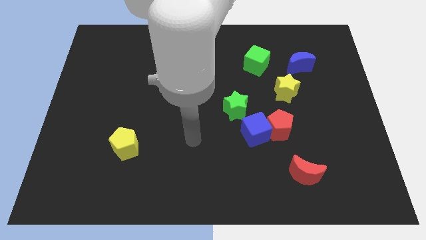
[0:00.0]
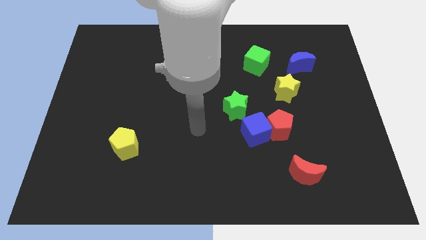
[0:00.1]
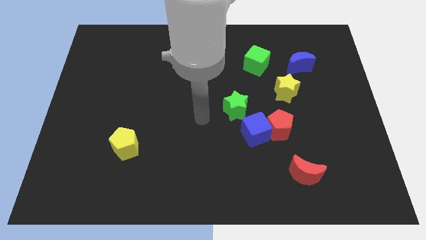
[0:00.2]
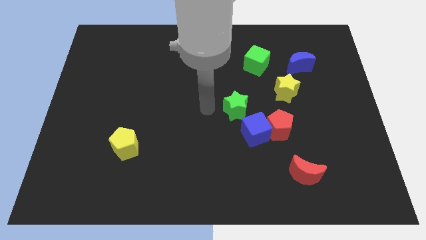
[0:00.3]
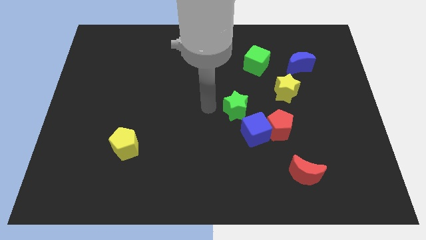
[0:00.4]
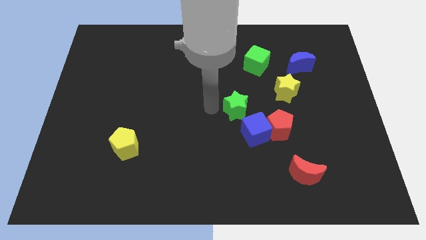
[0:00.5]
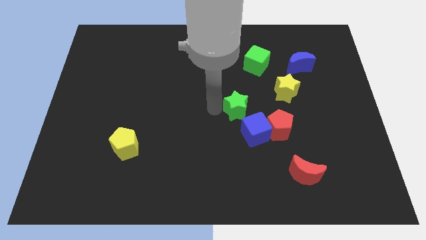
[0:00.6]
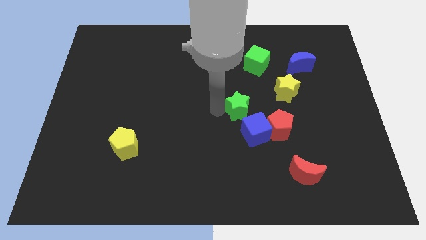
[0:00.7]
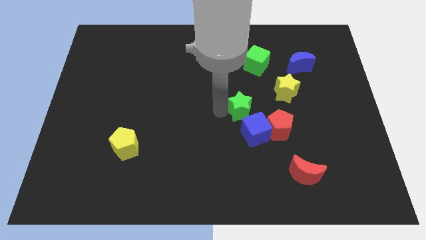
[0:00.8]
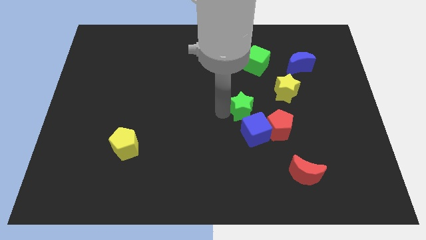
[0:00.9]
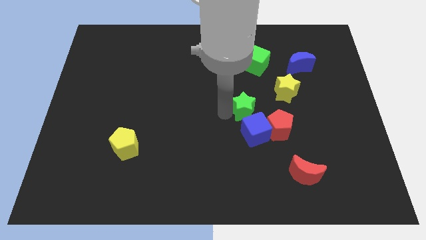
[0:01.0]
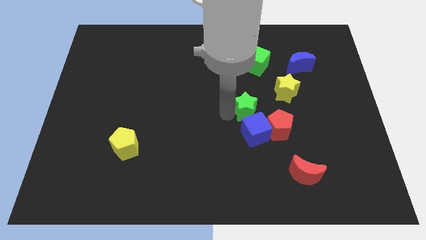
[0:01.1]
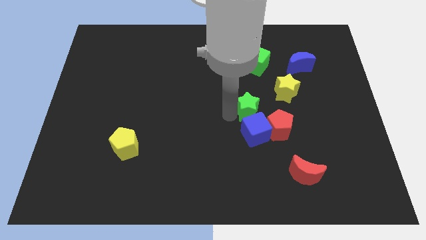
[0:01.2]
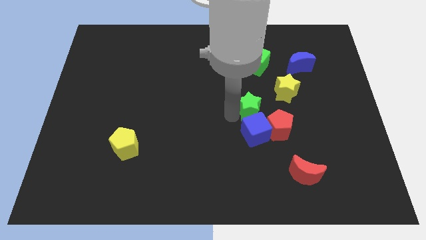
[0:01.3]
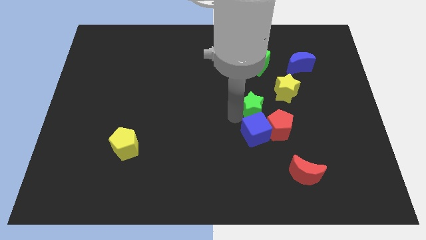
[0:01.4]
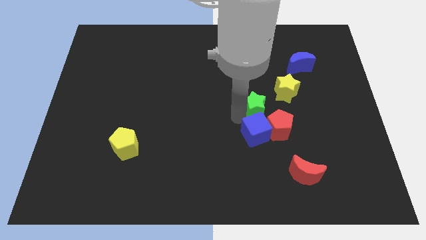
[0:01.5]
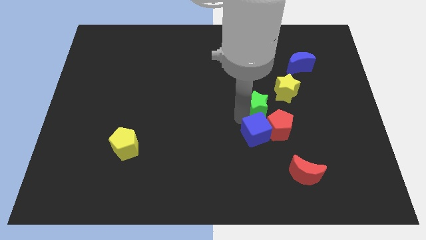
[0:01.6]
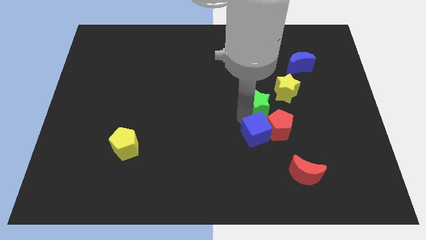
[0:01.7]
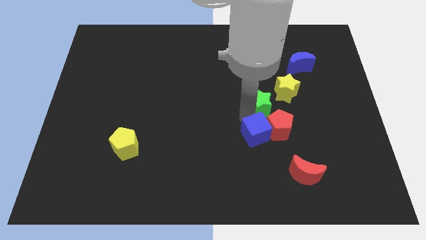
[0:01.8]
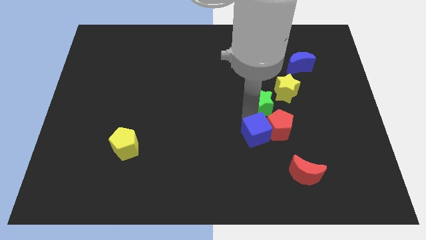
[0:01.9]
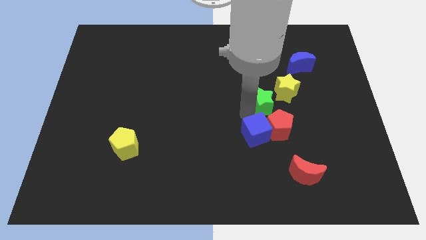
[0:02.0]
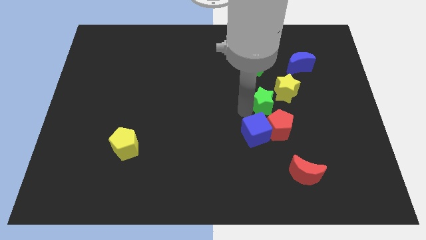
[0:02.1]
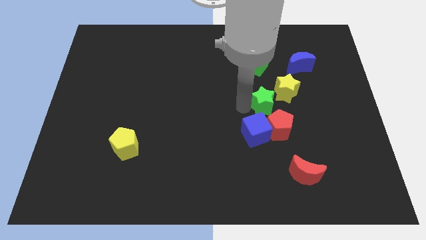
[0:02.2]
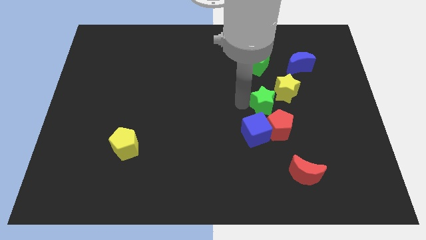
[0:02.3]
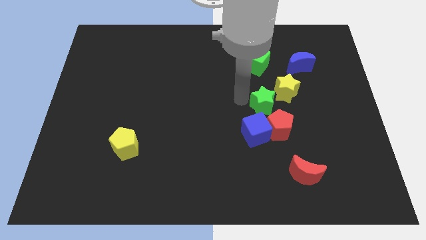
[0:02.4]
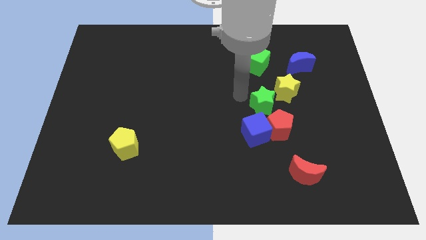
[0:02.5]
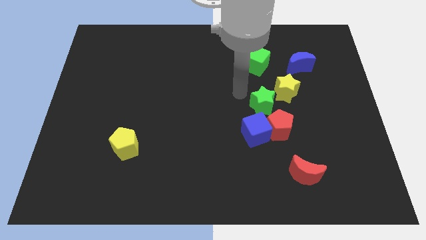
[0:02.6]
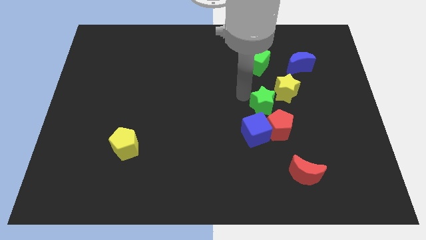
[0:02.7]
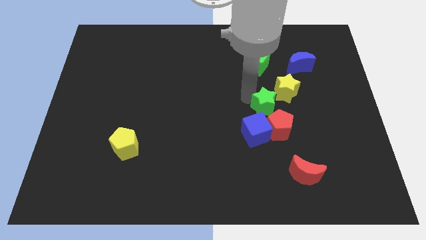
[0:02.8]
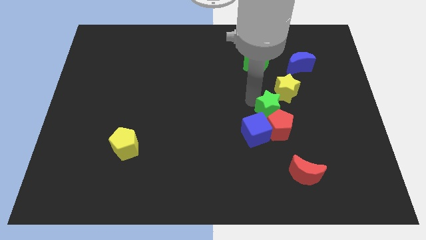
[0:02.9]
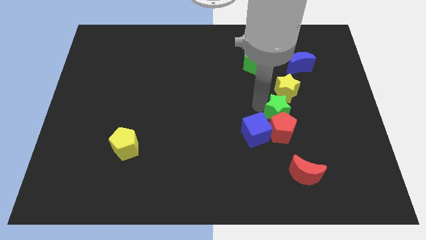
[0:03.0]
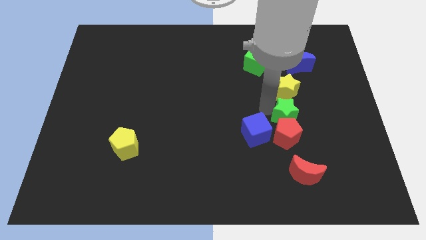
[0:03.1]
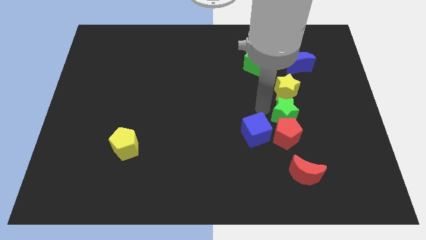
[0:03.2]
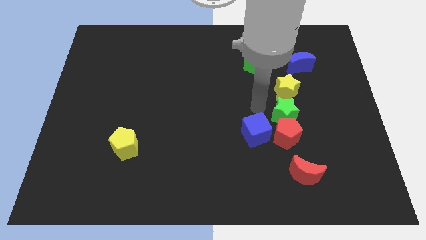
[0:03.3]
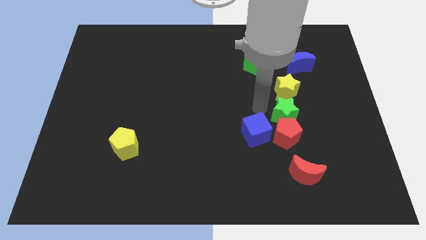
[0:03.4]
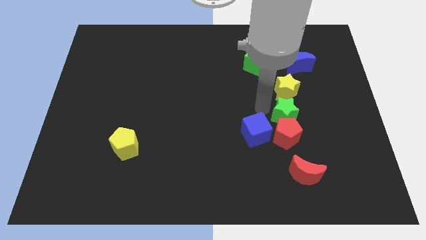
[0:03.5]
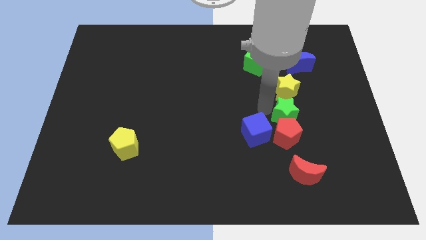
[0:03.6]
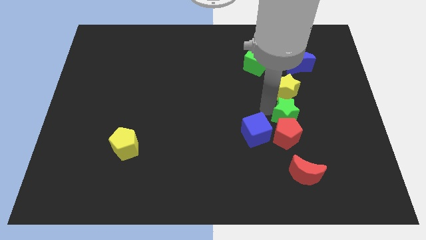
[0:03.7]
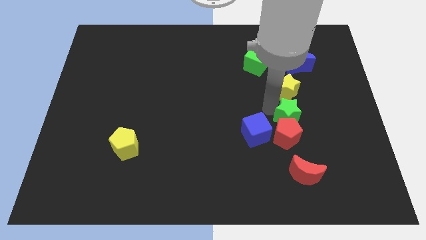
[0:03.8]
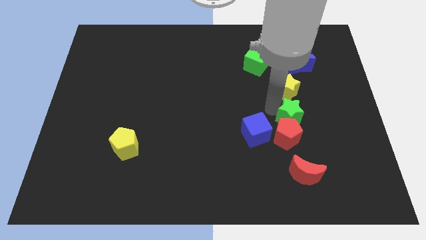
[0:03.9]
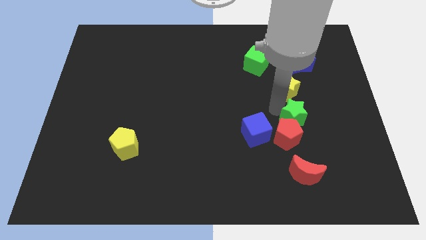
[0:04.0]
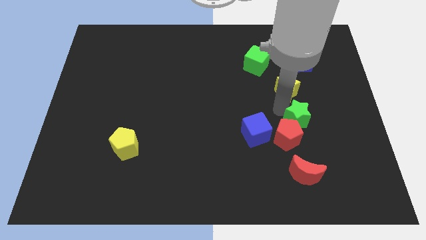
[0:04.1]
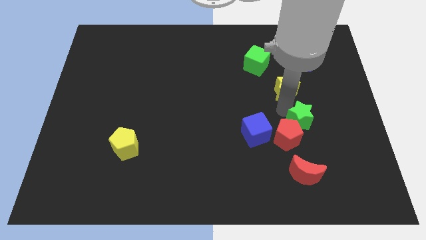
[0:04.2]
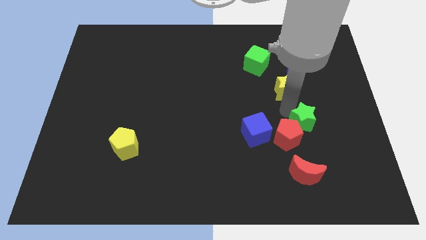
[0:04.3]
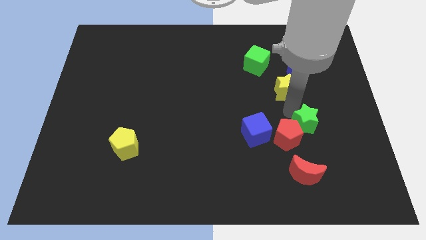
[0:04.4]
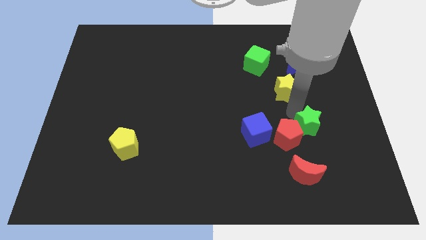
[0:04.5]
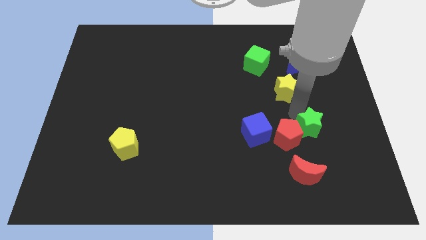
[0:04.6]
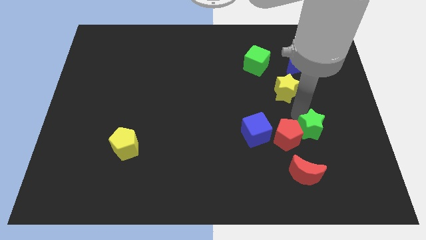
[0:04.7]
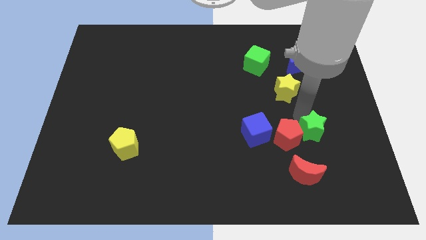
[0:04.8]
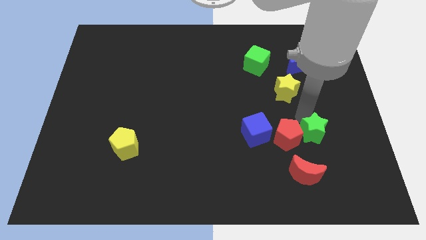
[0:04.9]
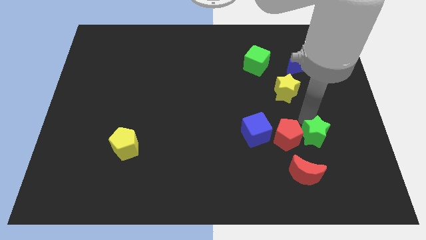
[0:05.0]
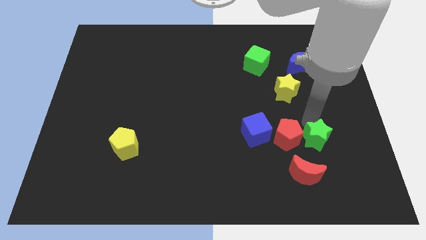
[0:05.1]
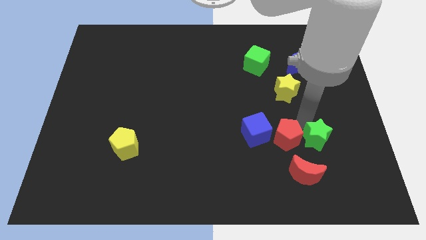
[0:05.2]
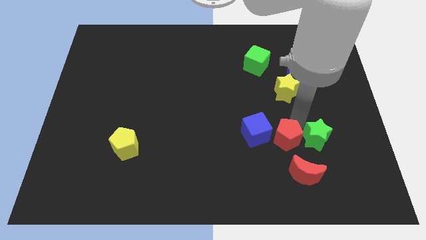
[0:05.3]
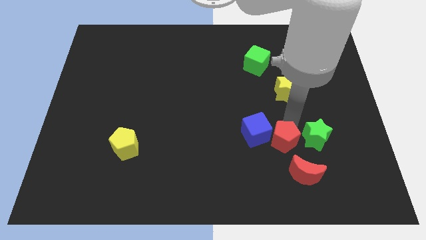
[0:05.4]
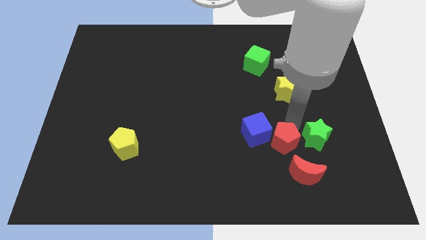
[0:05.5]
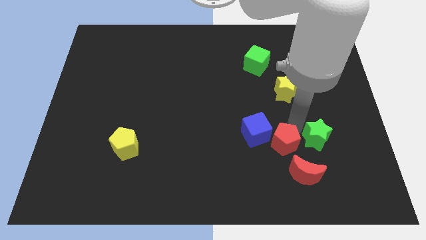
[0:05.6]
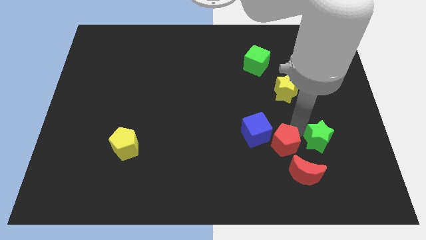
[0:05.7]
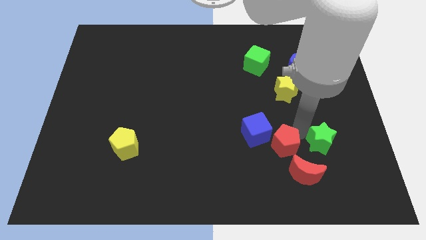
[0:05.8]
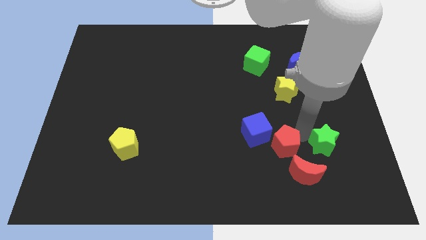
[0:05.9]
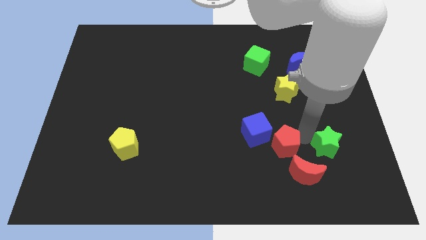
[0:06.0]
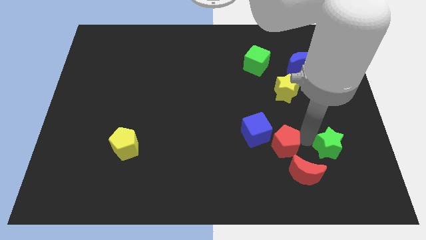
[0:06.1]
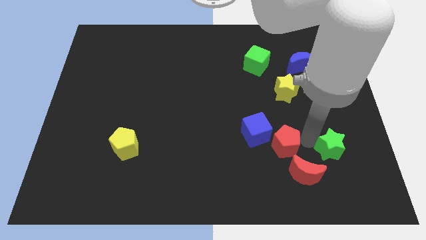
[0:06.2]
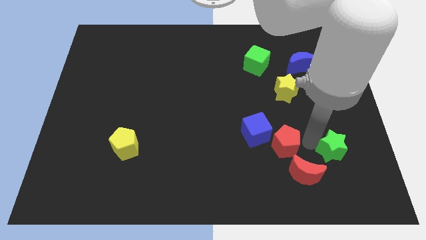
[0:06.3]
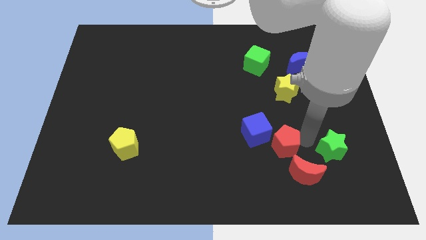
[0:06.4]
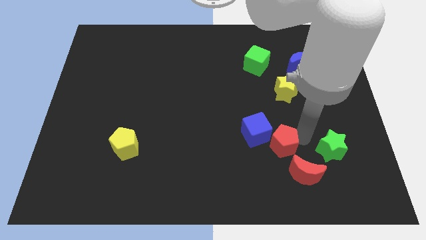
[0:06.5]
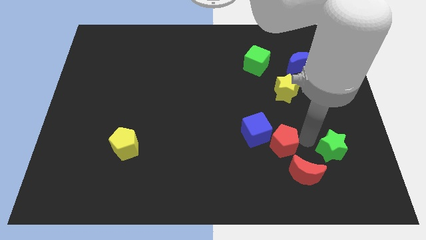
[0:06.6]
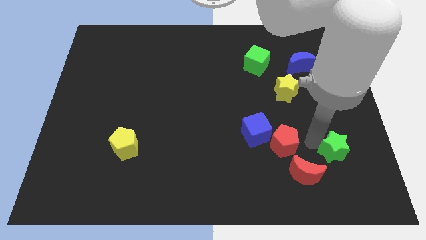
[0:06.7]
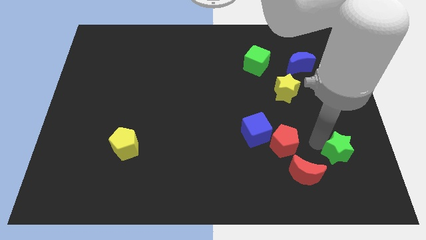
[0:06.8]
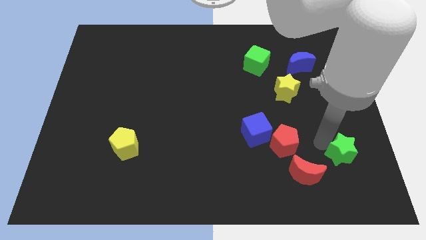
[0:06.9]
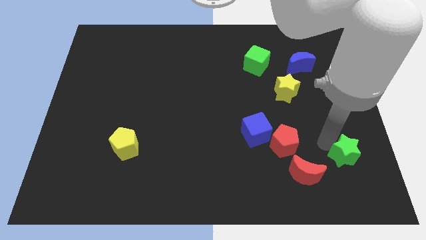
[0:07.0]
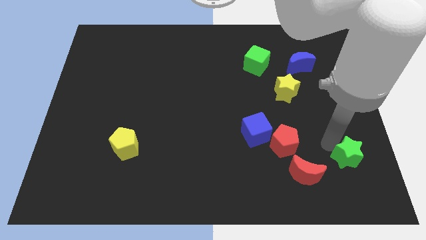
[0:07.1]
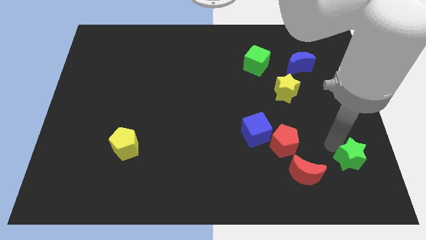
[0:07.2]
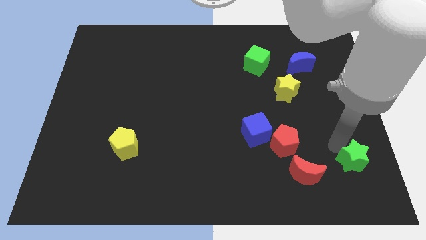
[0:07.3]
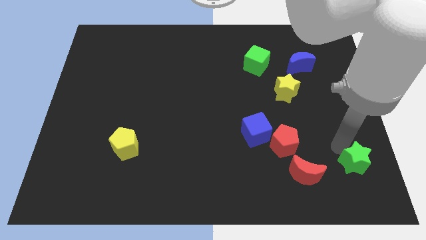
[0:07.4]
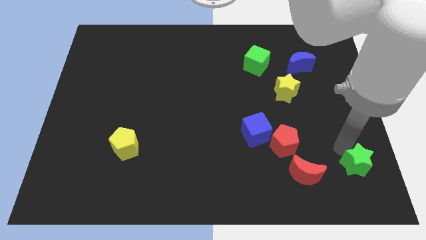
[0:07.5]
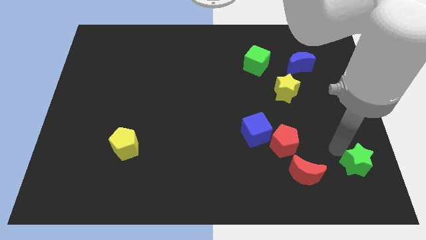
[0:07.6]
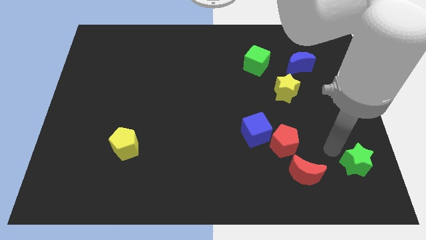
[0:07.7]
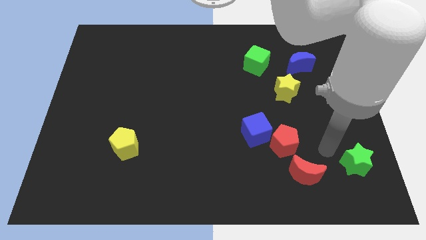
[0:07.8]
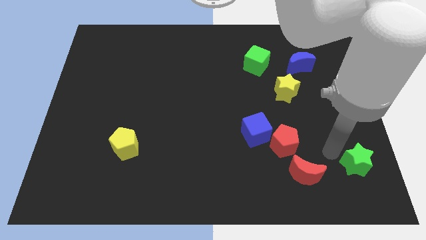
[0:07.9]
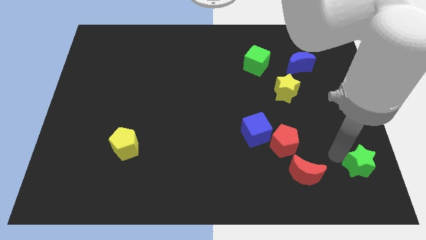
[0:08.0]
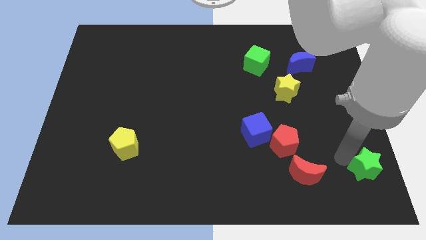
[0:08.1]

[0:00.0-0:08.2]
move the green star to the bottom right of the board
